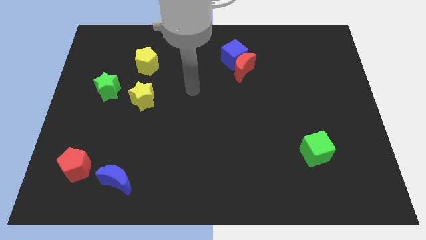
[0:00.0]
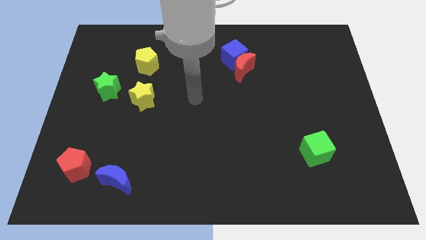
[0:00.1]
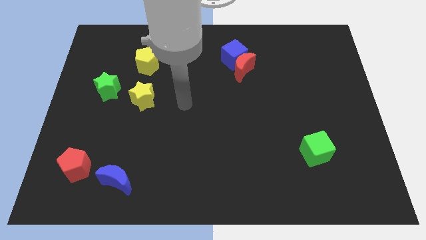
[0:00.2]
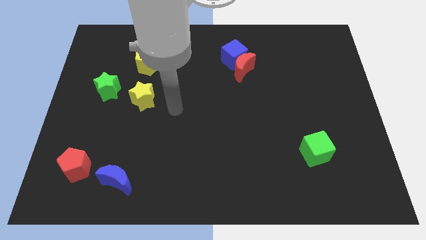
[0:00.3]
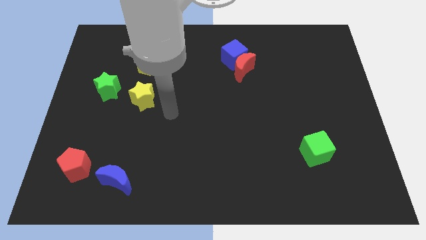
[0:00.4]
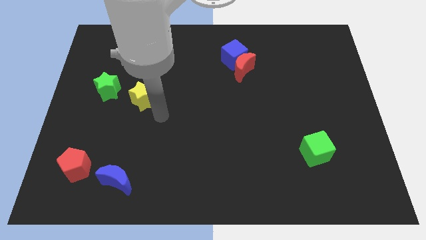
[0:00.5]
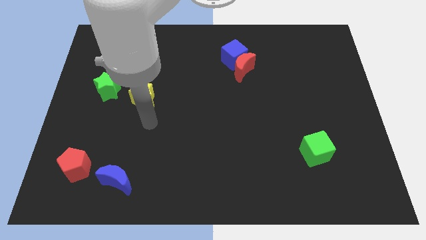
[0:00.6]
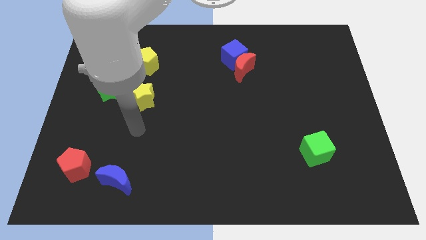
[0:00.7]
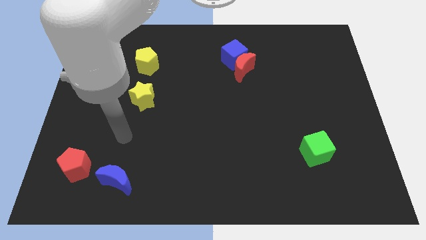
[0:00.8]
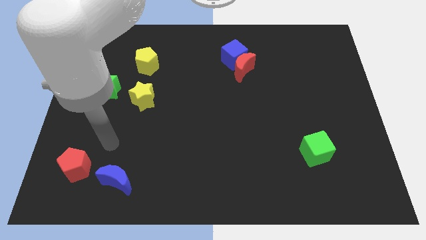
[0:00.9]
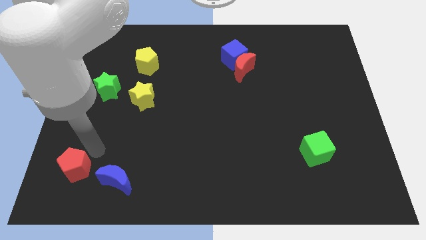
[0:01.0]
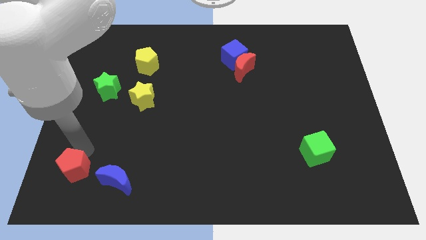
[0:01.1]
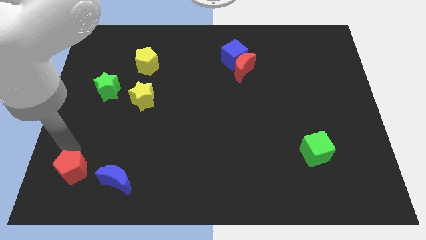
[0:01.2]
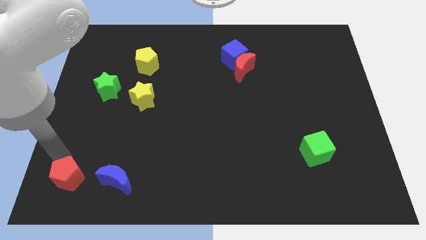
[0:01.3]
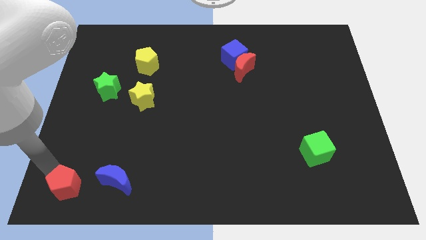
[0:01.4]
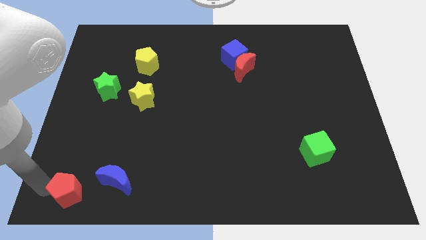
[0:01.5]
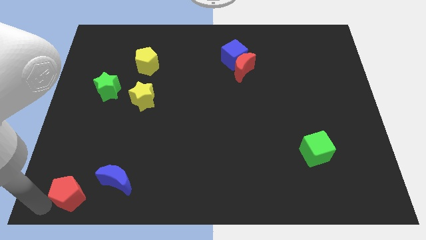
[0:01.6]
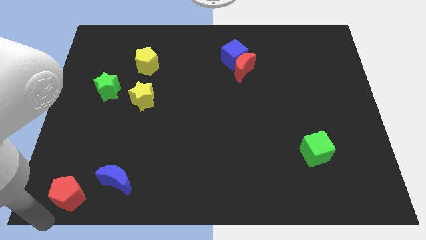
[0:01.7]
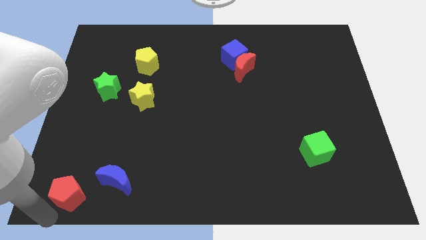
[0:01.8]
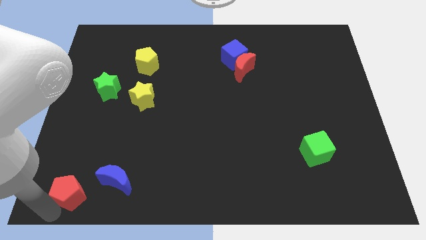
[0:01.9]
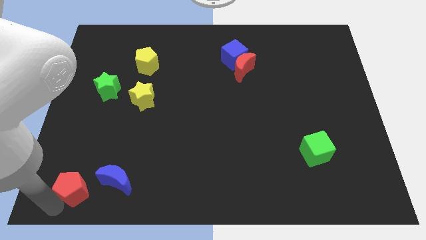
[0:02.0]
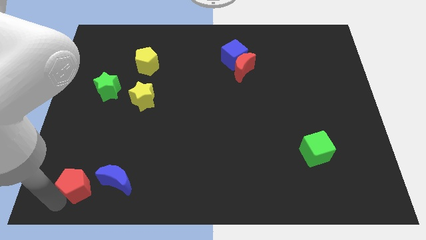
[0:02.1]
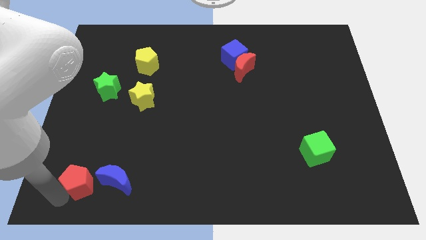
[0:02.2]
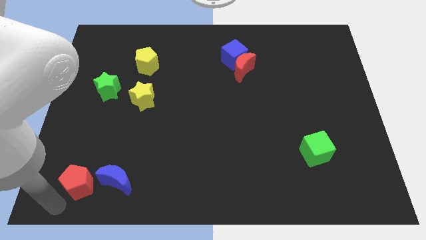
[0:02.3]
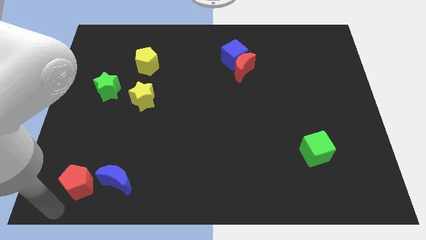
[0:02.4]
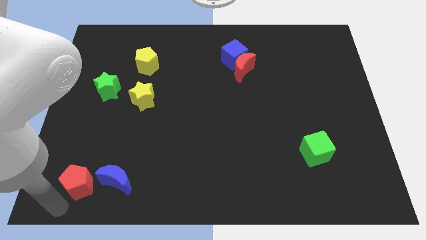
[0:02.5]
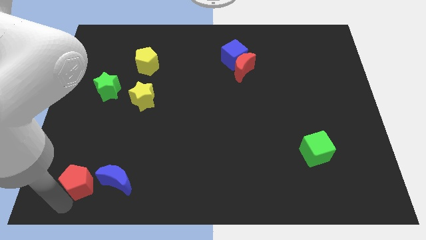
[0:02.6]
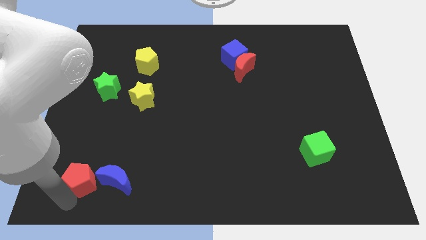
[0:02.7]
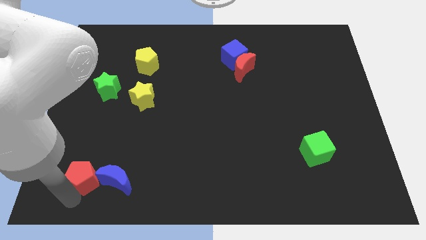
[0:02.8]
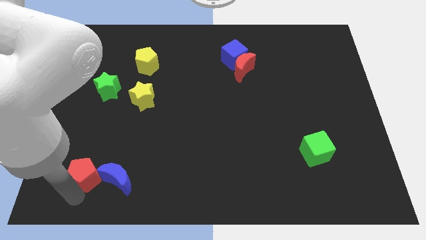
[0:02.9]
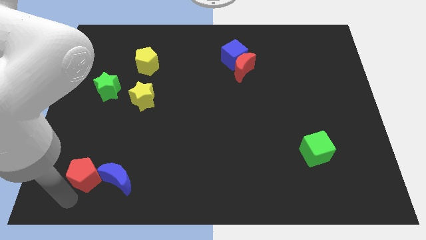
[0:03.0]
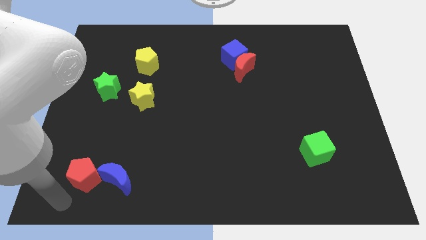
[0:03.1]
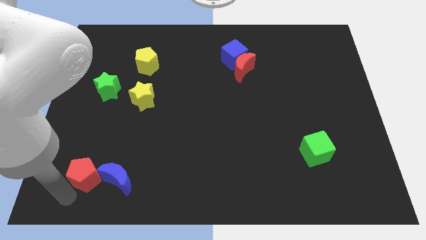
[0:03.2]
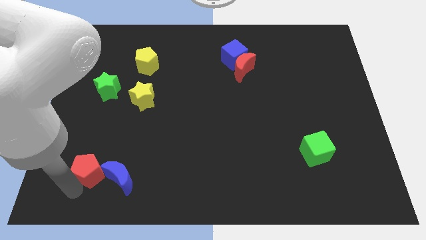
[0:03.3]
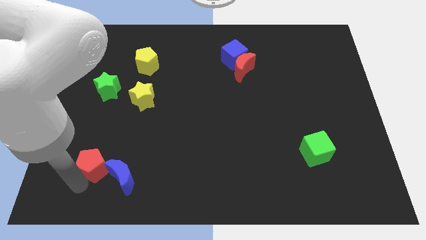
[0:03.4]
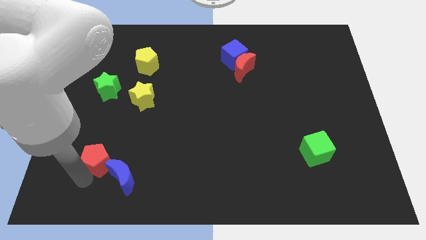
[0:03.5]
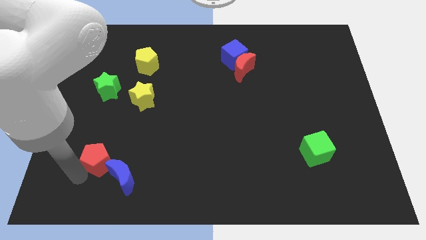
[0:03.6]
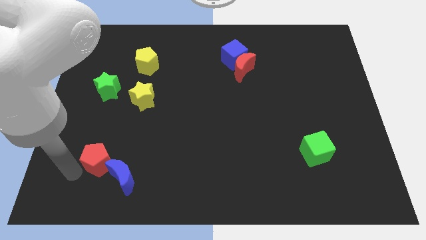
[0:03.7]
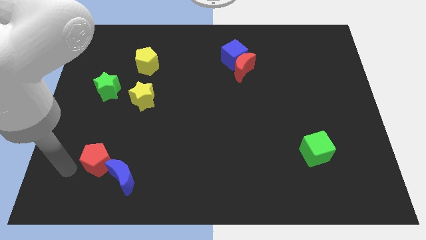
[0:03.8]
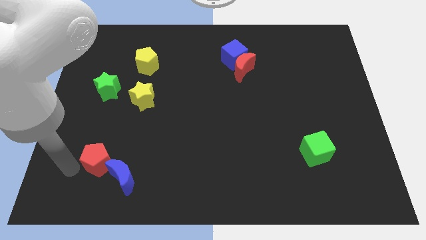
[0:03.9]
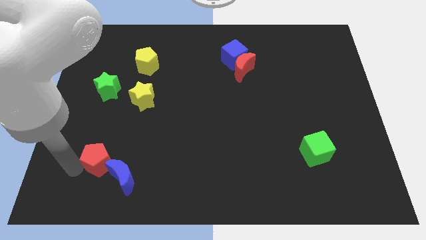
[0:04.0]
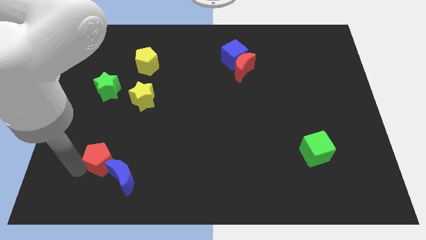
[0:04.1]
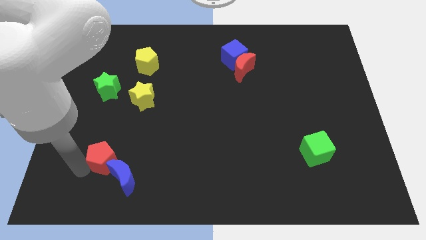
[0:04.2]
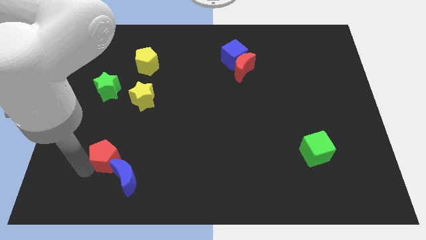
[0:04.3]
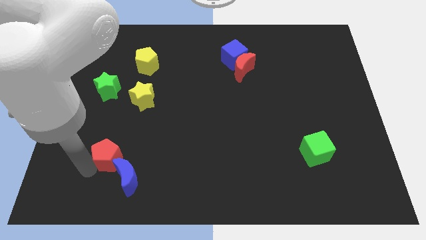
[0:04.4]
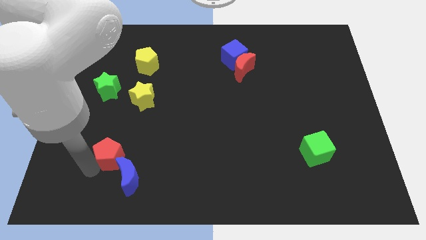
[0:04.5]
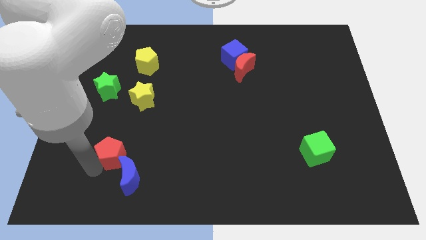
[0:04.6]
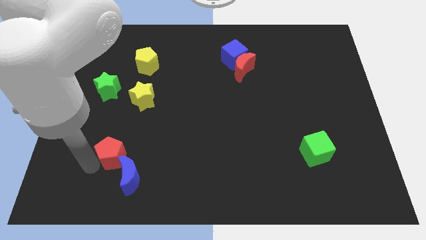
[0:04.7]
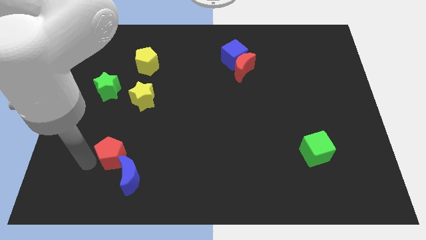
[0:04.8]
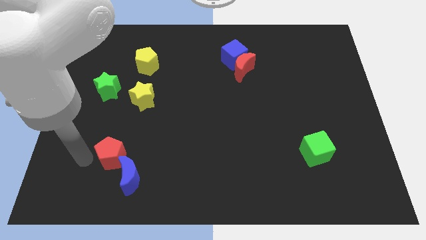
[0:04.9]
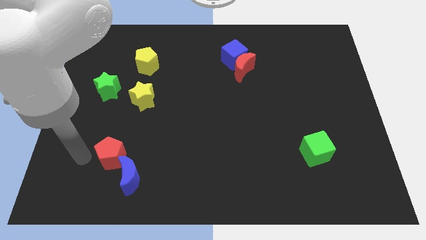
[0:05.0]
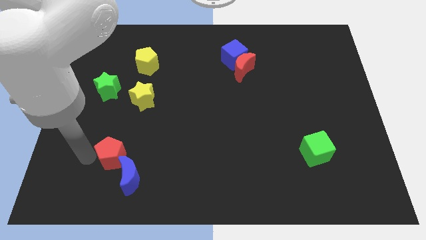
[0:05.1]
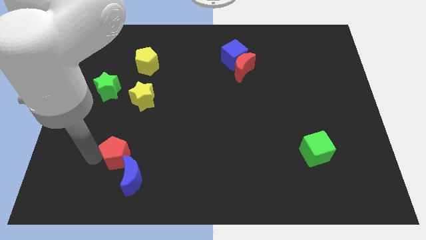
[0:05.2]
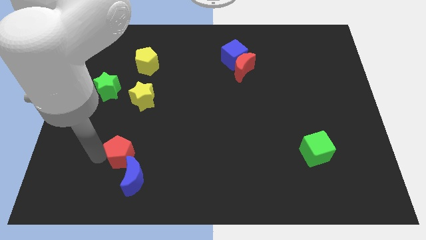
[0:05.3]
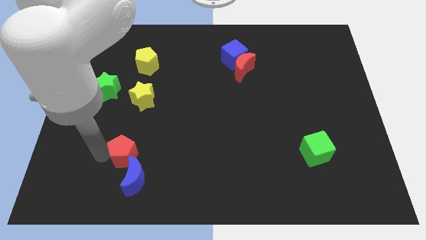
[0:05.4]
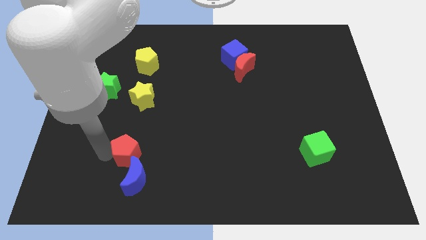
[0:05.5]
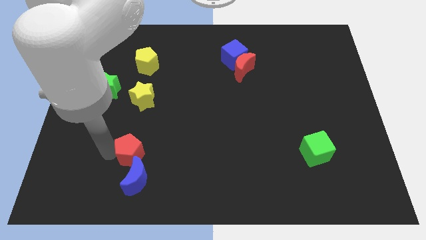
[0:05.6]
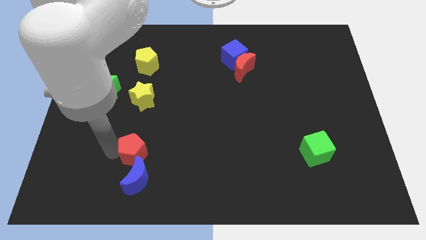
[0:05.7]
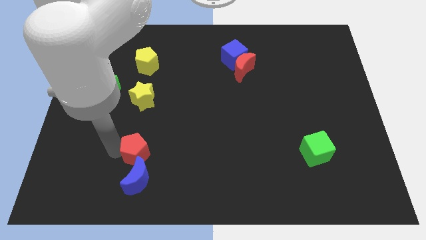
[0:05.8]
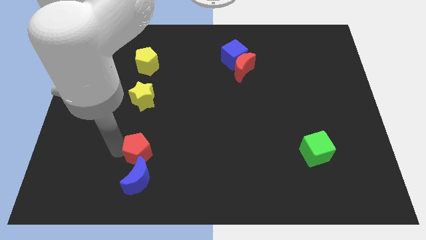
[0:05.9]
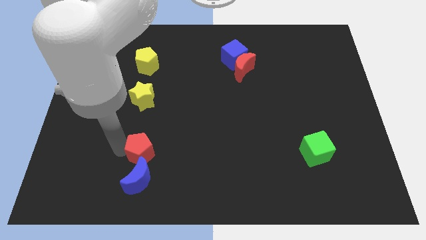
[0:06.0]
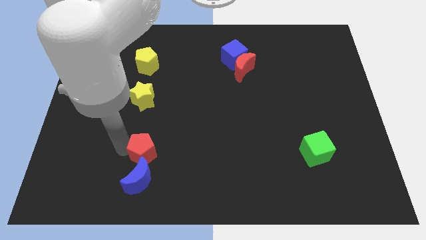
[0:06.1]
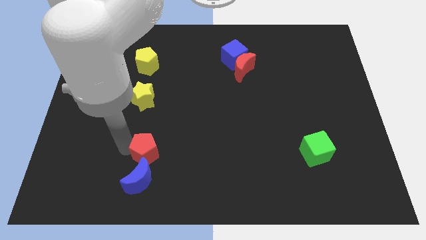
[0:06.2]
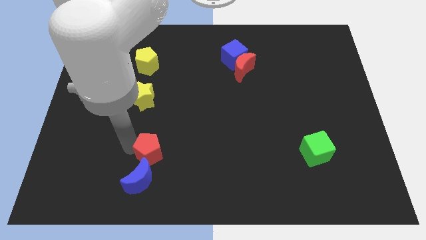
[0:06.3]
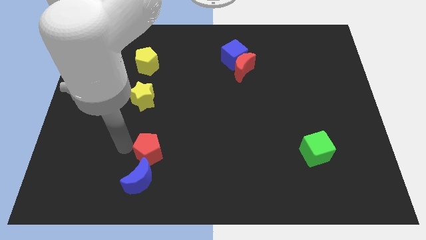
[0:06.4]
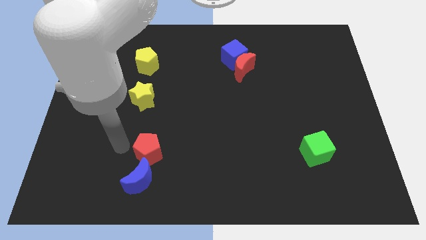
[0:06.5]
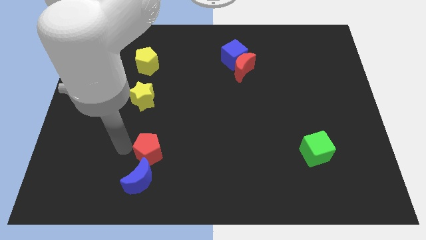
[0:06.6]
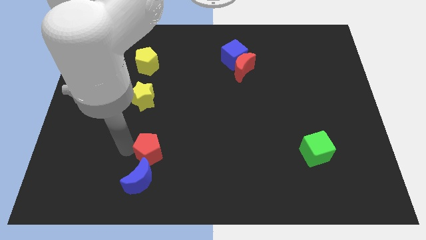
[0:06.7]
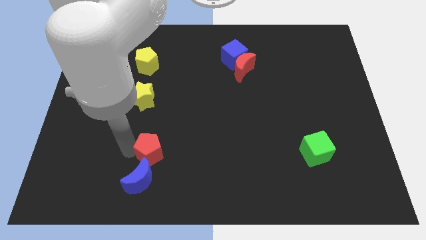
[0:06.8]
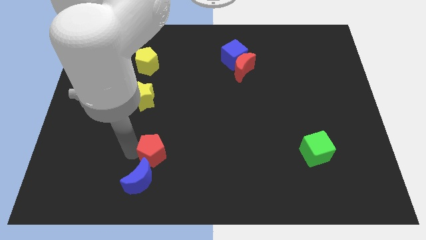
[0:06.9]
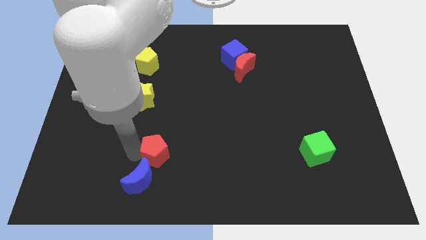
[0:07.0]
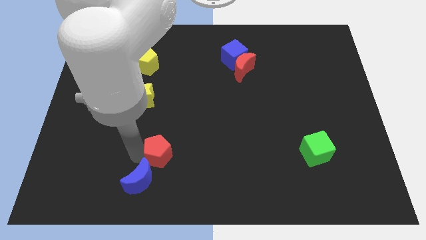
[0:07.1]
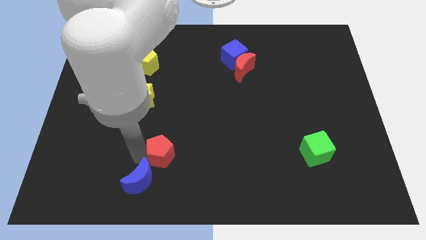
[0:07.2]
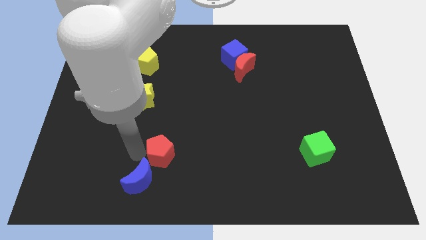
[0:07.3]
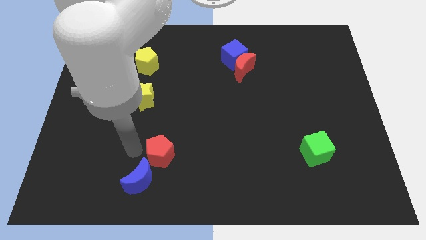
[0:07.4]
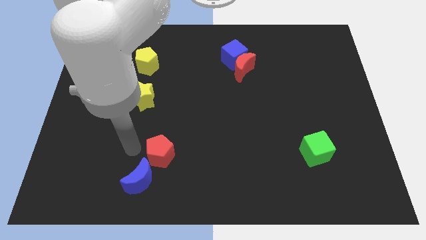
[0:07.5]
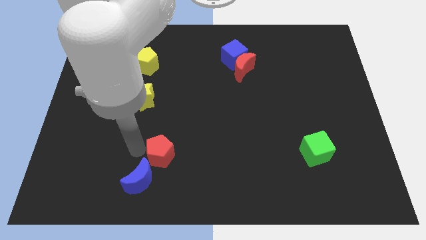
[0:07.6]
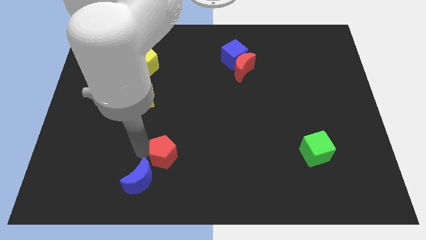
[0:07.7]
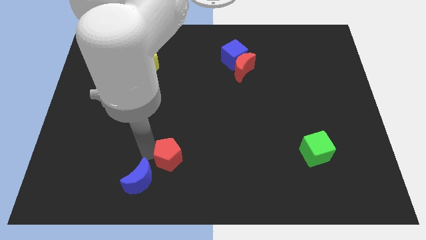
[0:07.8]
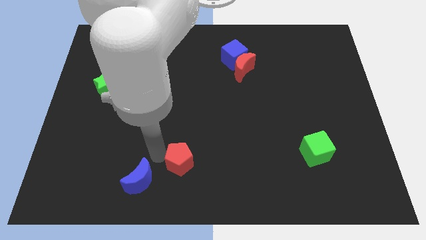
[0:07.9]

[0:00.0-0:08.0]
push the red pentagon to the right
